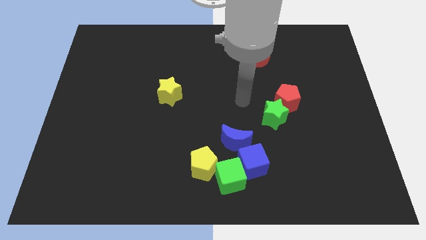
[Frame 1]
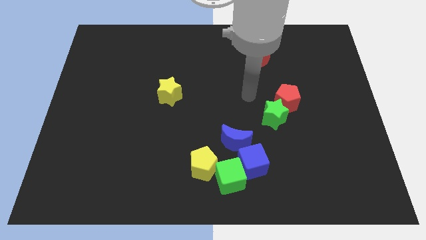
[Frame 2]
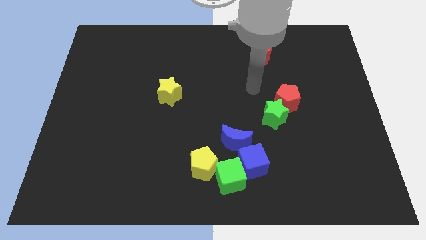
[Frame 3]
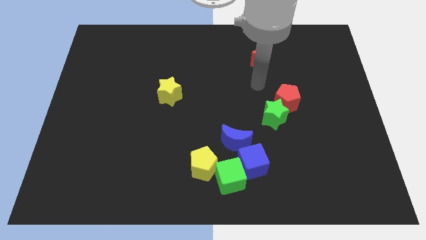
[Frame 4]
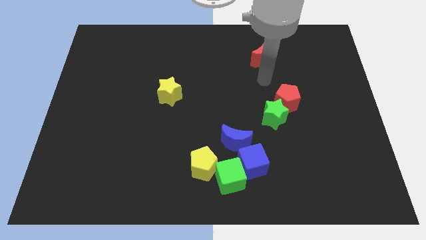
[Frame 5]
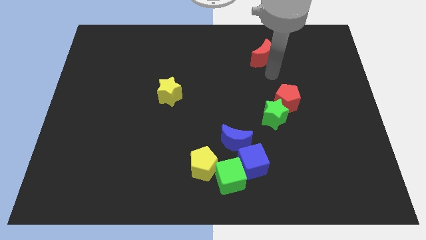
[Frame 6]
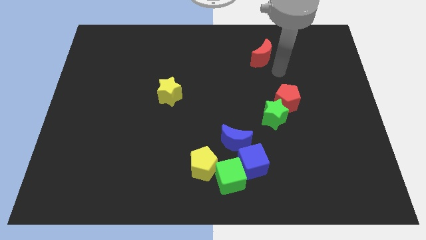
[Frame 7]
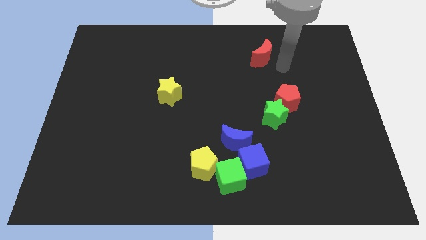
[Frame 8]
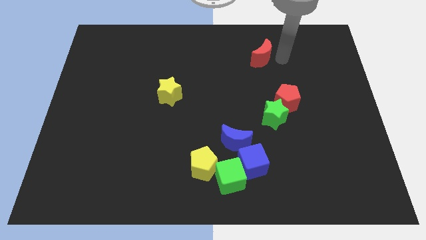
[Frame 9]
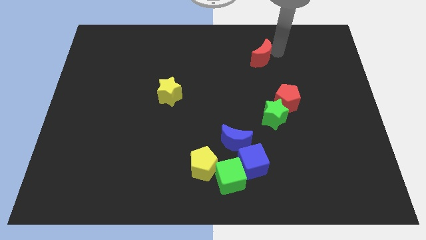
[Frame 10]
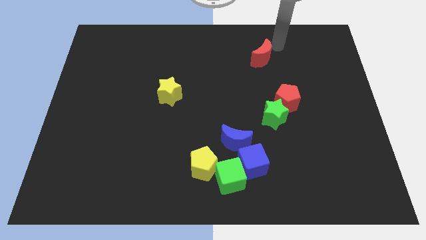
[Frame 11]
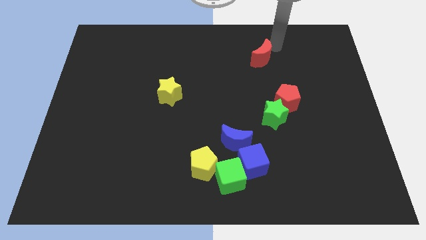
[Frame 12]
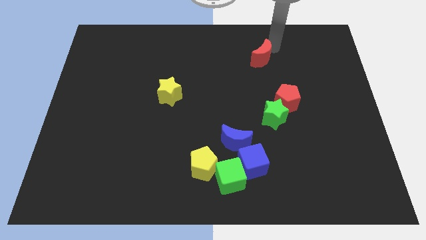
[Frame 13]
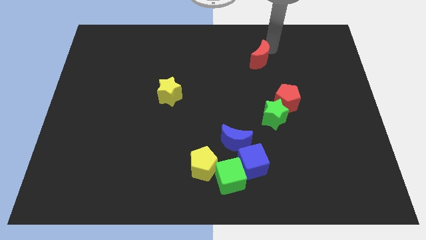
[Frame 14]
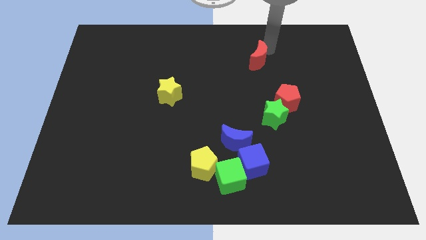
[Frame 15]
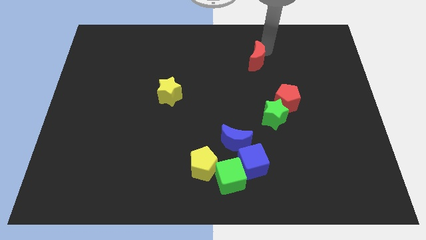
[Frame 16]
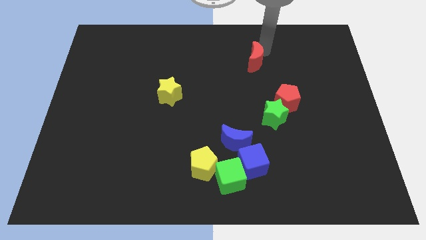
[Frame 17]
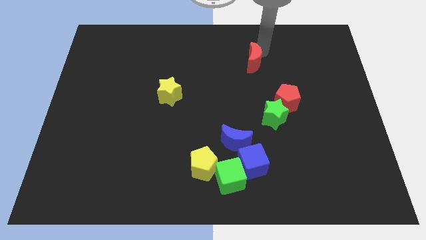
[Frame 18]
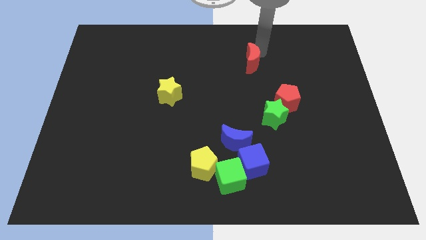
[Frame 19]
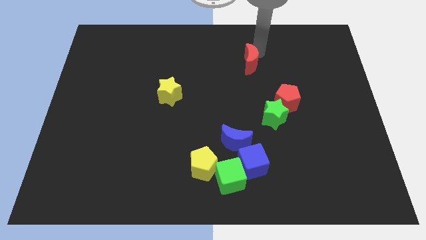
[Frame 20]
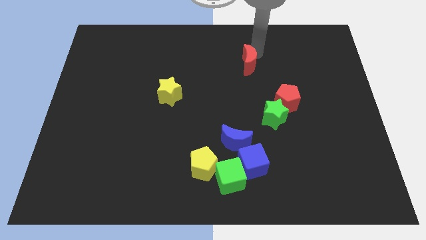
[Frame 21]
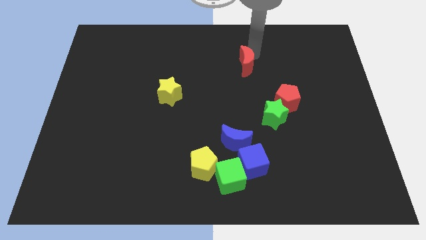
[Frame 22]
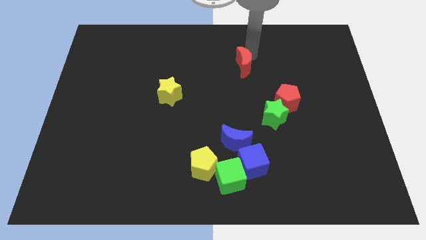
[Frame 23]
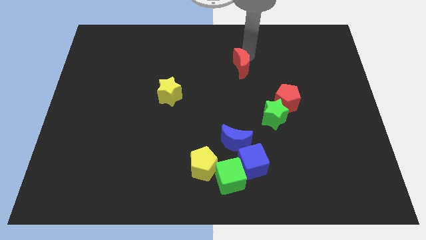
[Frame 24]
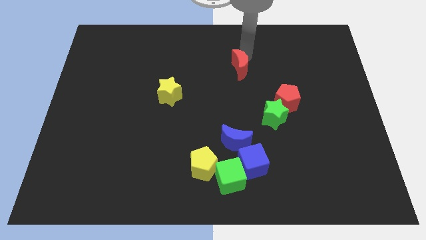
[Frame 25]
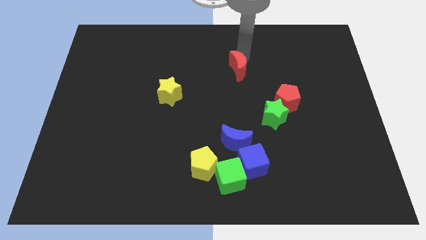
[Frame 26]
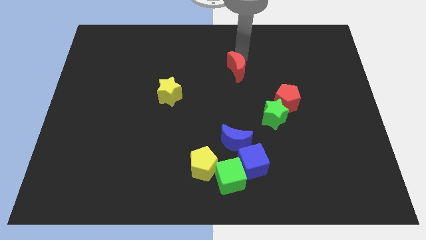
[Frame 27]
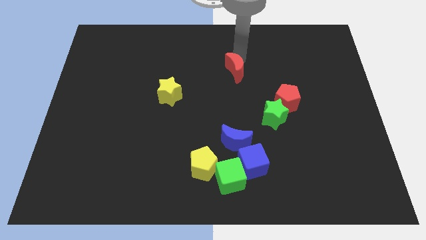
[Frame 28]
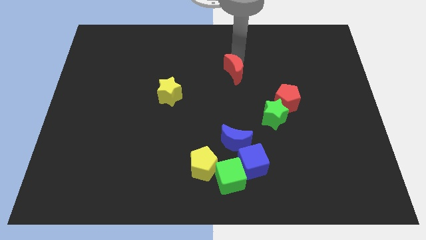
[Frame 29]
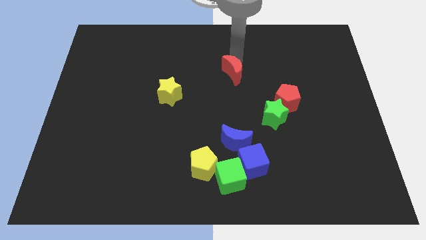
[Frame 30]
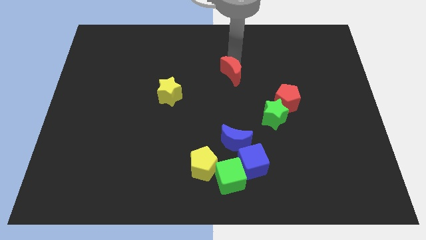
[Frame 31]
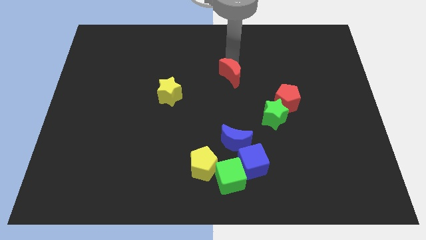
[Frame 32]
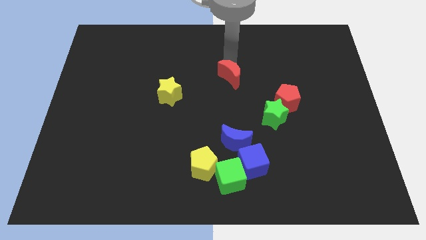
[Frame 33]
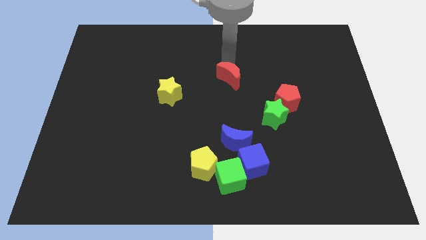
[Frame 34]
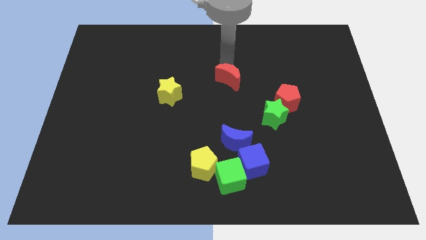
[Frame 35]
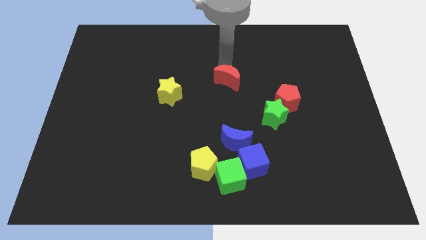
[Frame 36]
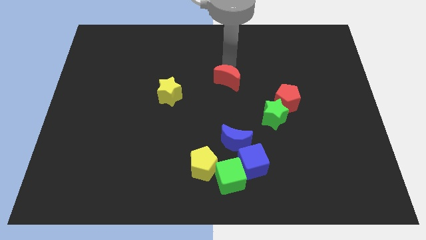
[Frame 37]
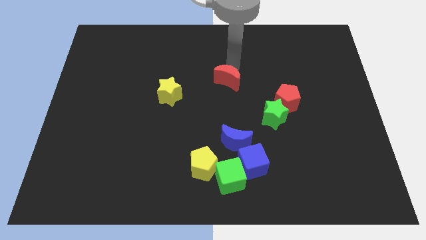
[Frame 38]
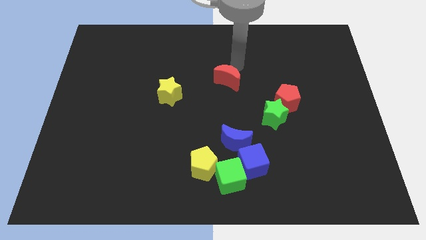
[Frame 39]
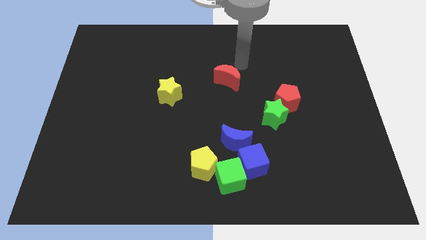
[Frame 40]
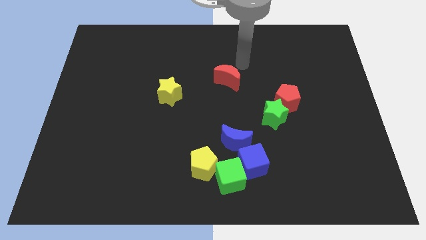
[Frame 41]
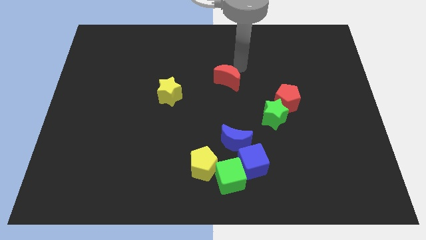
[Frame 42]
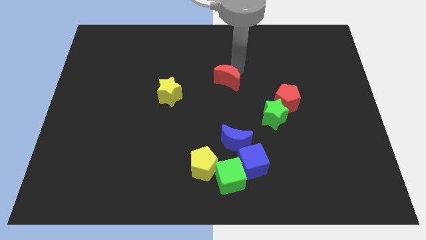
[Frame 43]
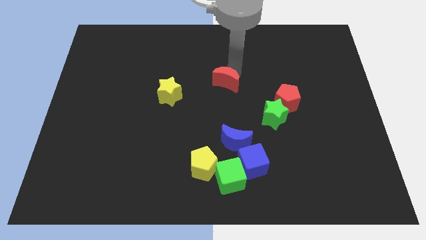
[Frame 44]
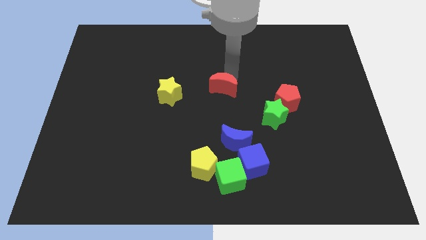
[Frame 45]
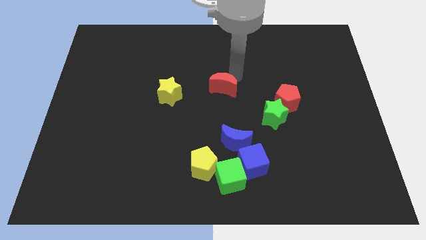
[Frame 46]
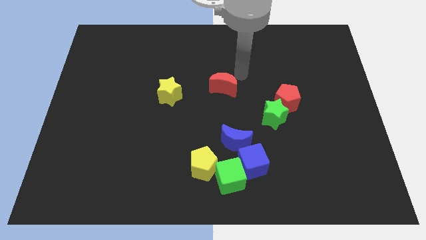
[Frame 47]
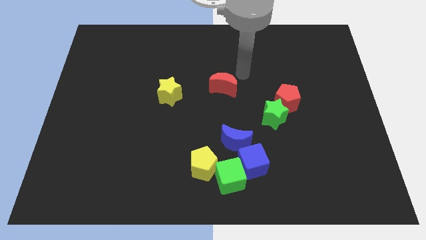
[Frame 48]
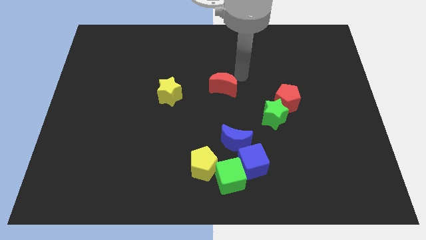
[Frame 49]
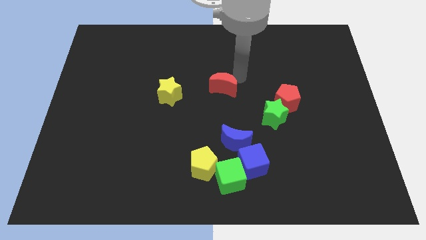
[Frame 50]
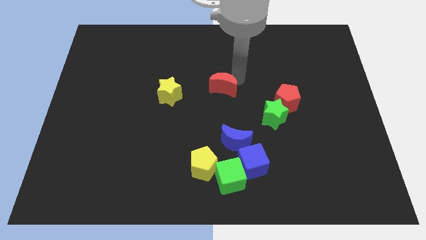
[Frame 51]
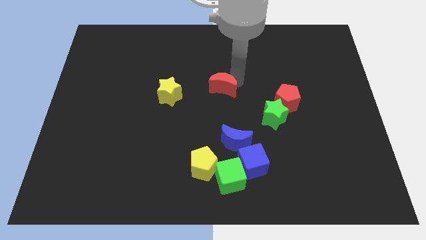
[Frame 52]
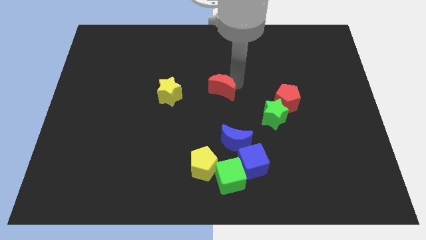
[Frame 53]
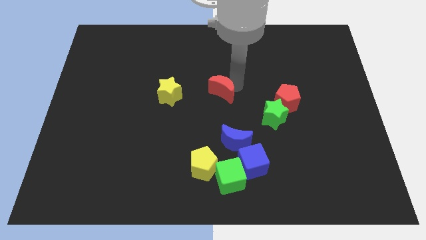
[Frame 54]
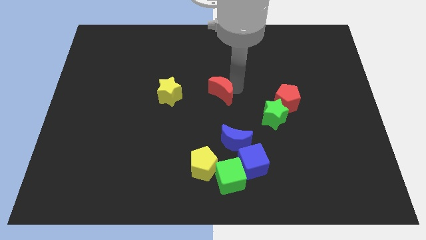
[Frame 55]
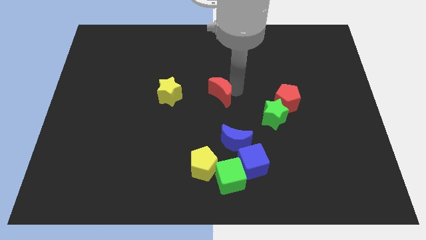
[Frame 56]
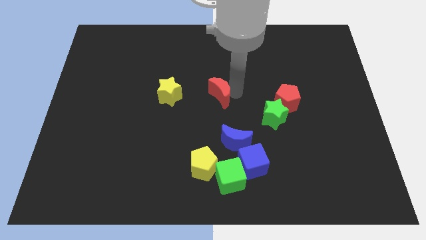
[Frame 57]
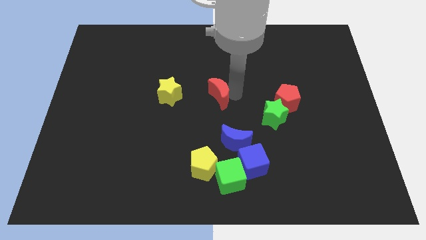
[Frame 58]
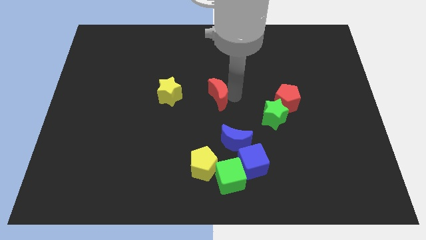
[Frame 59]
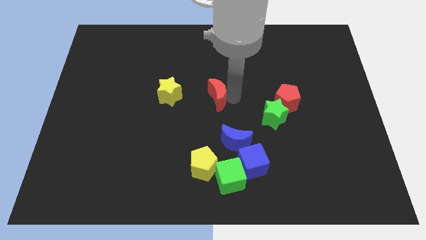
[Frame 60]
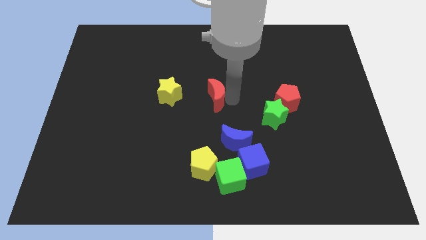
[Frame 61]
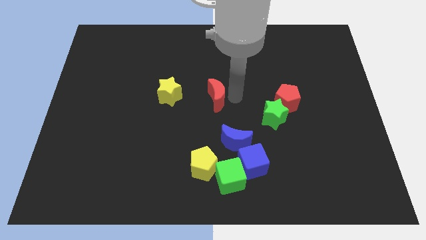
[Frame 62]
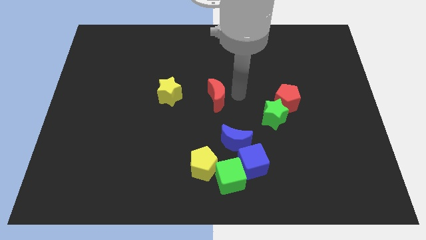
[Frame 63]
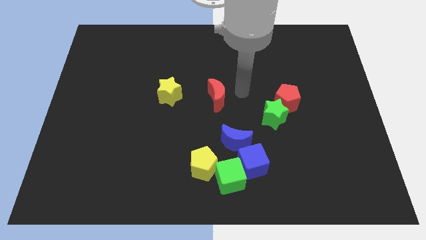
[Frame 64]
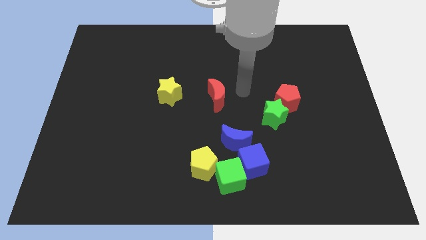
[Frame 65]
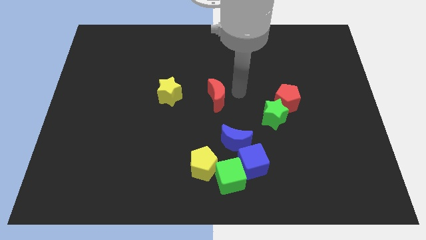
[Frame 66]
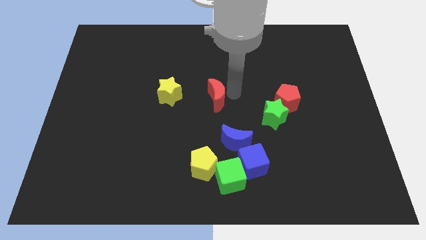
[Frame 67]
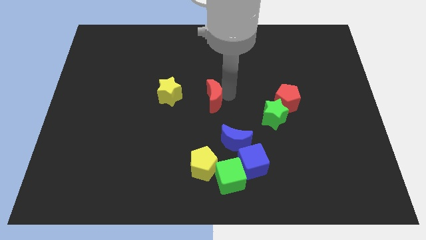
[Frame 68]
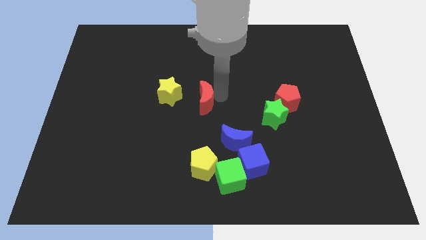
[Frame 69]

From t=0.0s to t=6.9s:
push the red moon down and left

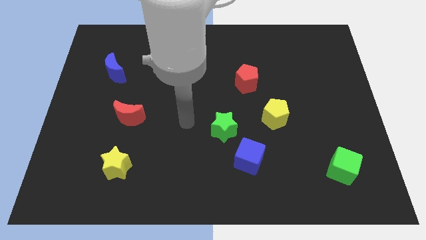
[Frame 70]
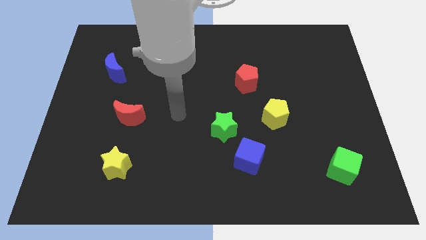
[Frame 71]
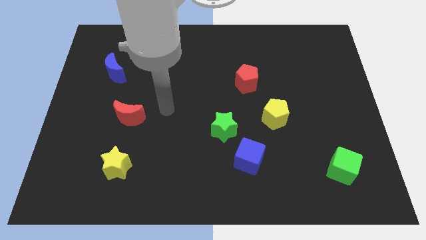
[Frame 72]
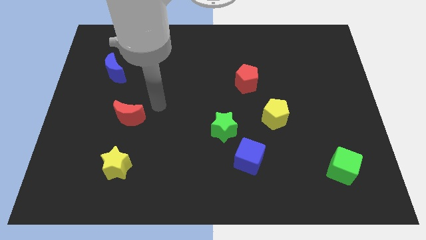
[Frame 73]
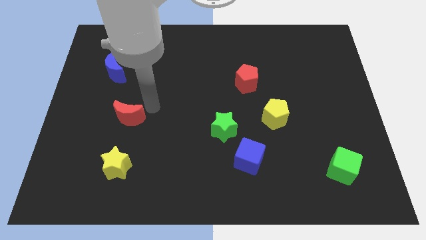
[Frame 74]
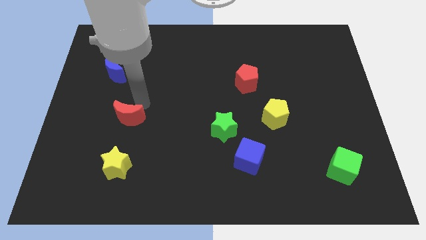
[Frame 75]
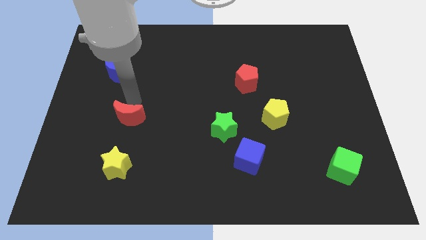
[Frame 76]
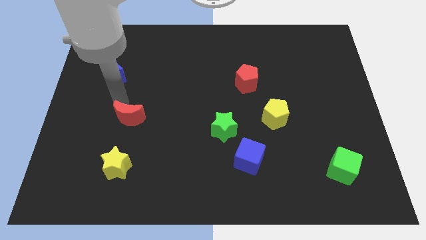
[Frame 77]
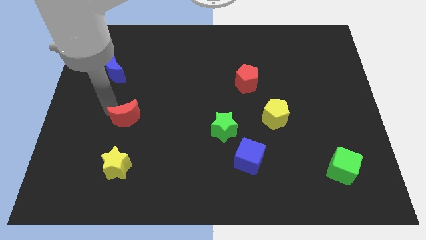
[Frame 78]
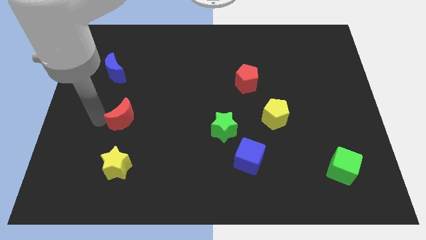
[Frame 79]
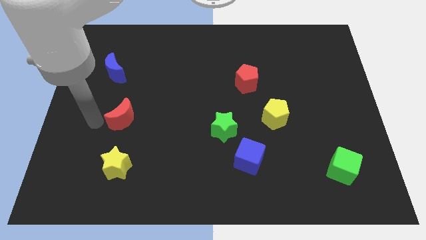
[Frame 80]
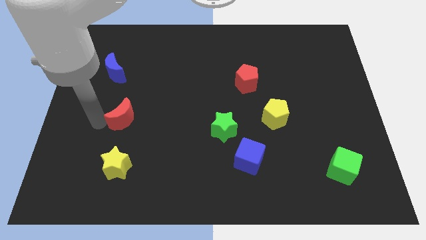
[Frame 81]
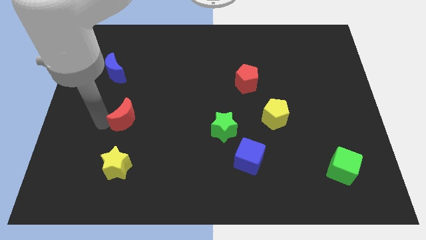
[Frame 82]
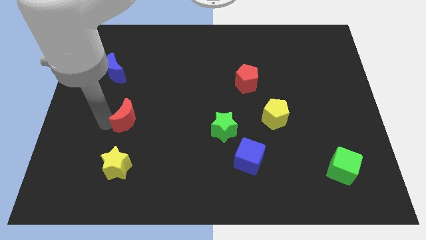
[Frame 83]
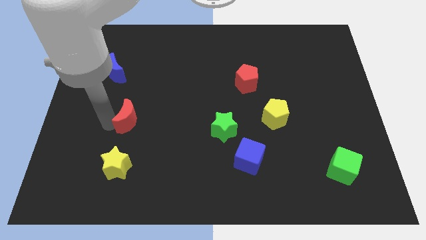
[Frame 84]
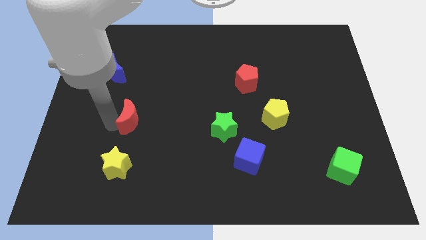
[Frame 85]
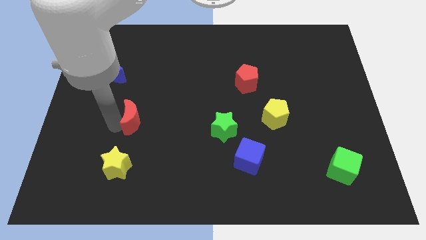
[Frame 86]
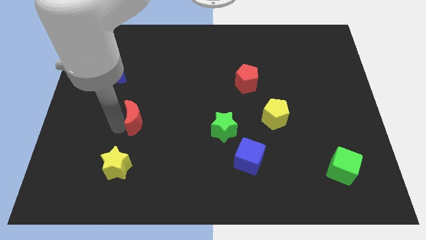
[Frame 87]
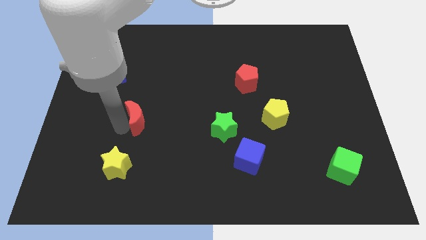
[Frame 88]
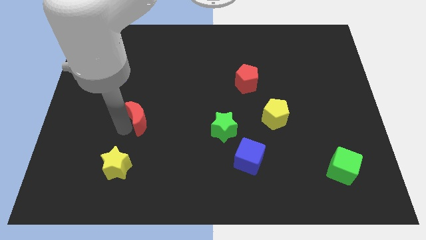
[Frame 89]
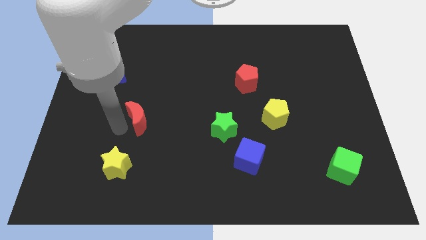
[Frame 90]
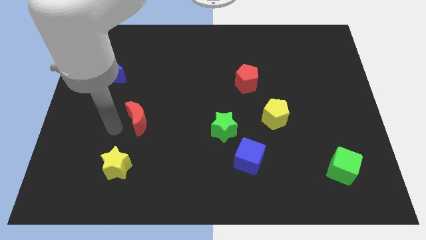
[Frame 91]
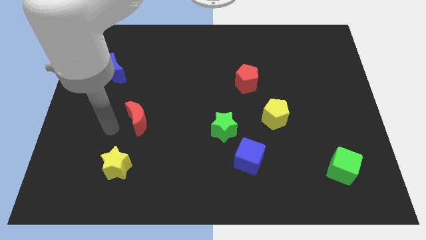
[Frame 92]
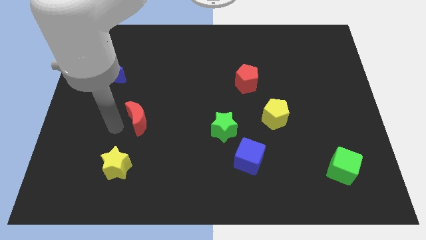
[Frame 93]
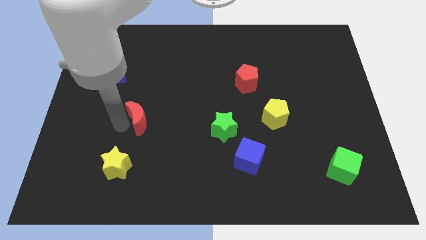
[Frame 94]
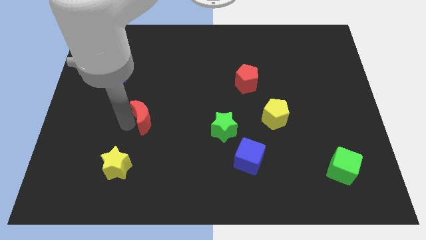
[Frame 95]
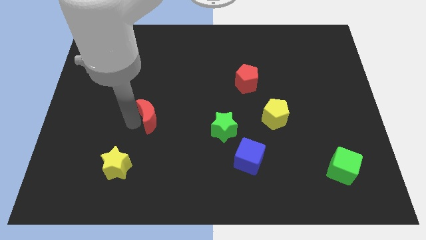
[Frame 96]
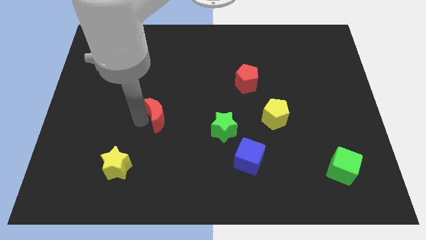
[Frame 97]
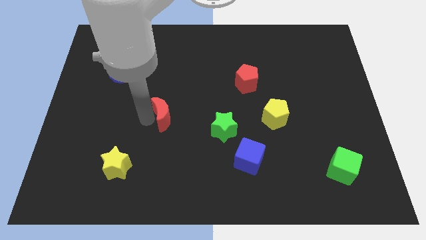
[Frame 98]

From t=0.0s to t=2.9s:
slightly slide the red moon to the right
